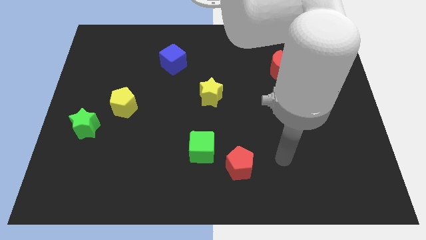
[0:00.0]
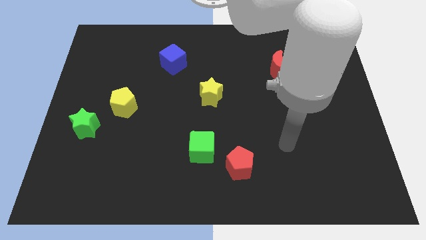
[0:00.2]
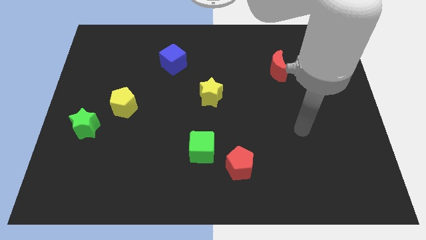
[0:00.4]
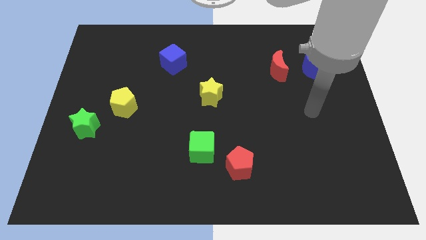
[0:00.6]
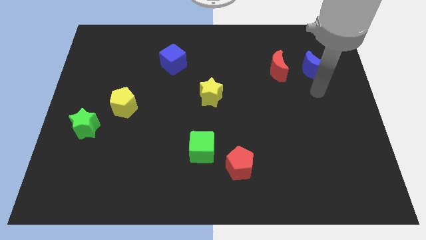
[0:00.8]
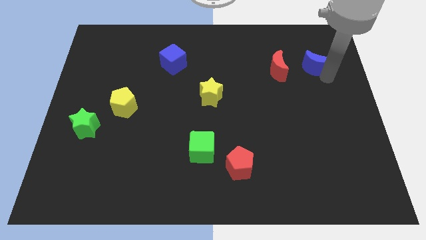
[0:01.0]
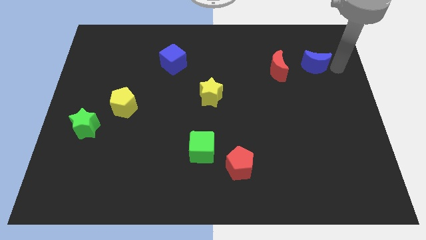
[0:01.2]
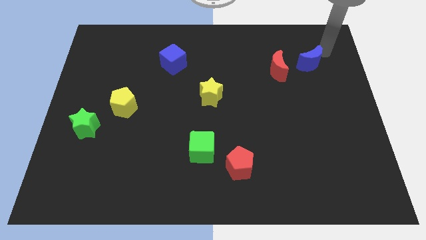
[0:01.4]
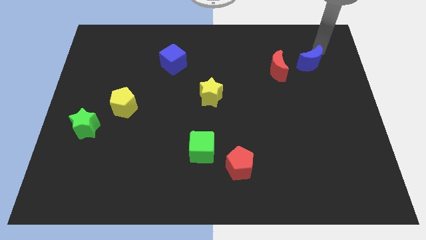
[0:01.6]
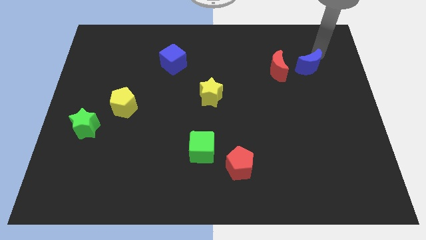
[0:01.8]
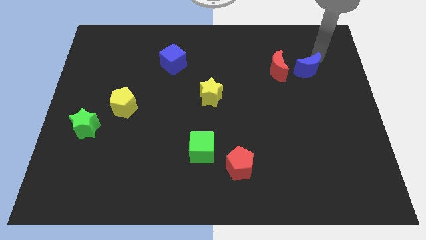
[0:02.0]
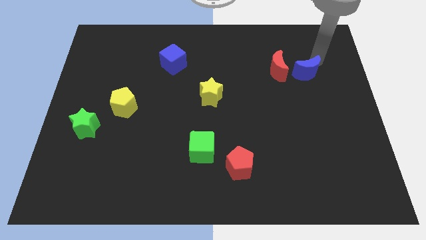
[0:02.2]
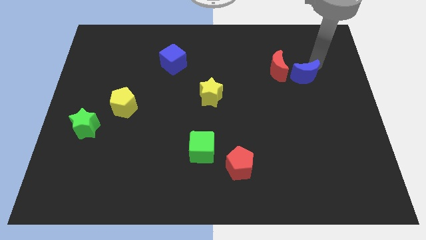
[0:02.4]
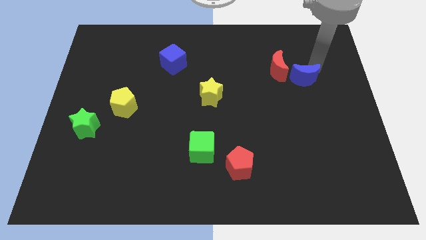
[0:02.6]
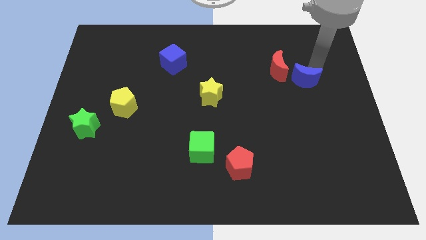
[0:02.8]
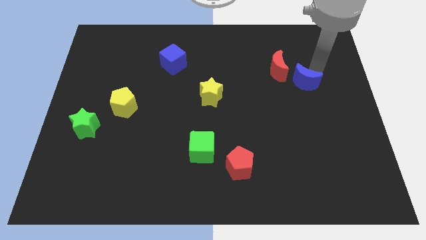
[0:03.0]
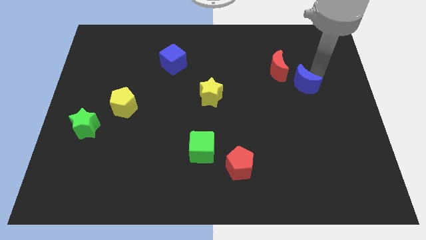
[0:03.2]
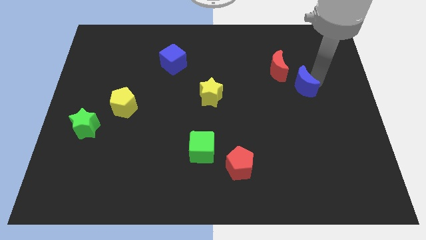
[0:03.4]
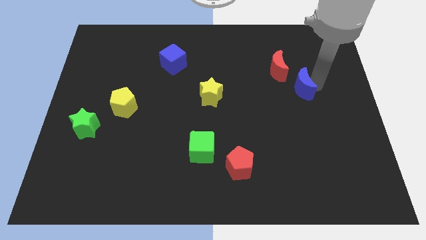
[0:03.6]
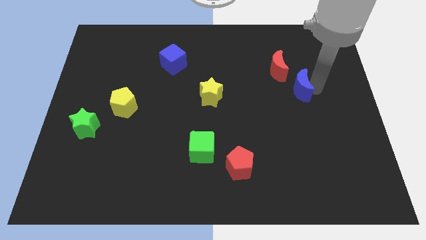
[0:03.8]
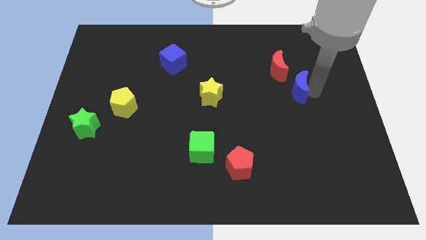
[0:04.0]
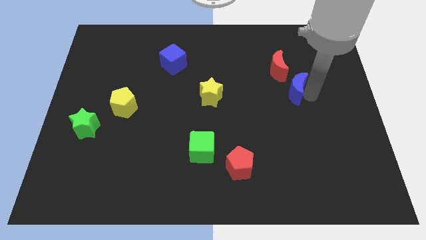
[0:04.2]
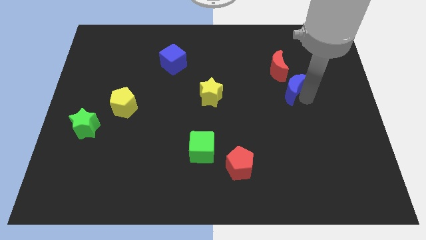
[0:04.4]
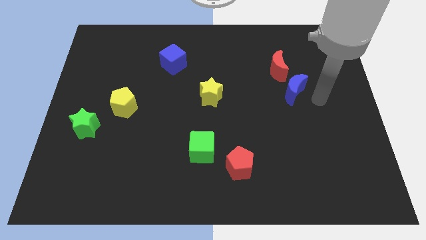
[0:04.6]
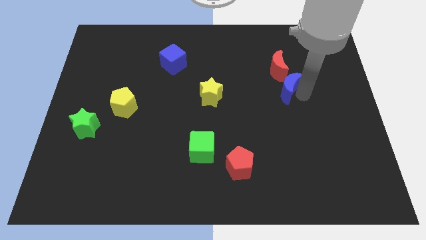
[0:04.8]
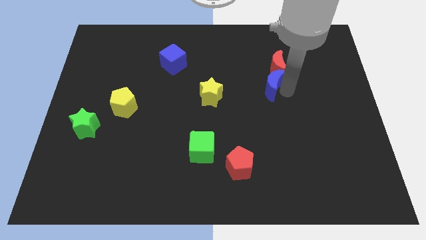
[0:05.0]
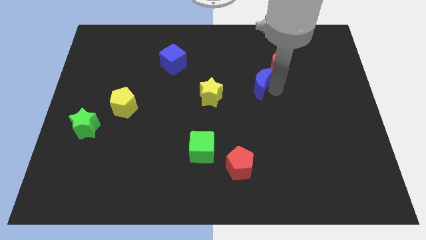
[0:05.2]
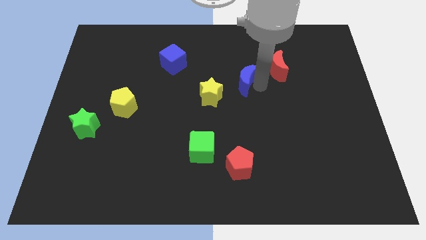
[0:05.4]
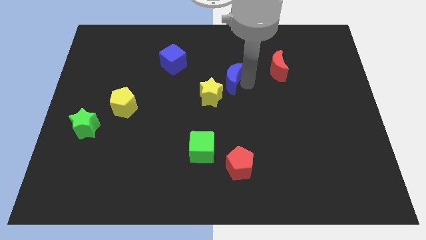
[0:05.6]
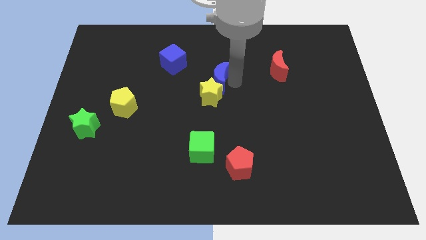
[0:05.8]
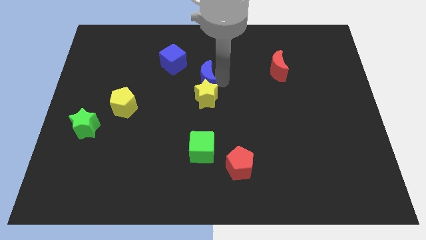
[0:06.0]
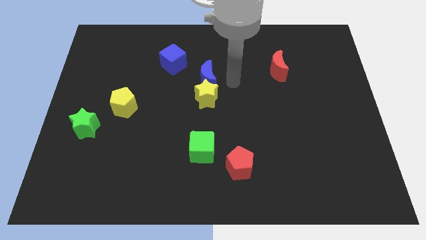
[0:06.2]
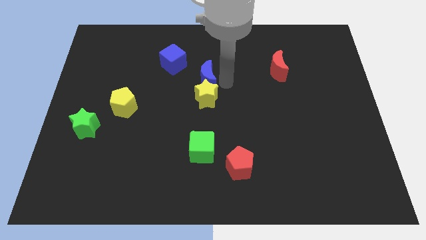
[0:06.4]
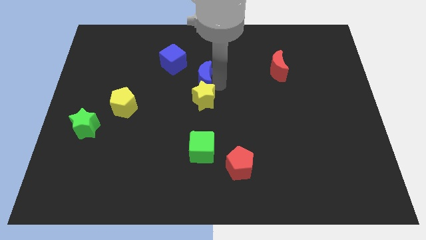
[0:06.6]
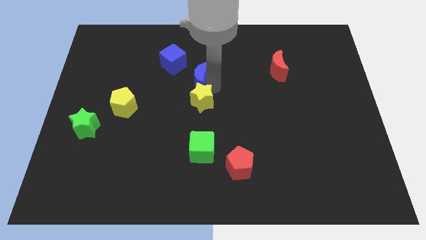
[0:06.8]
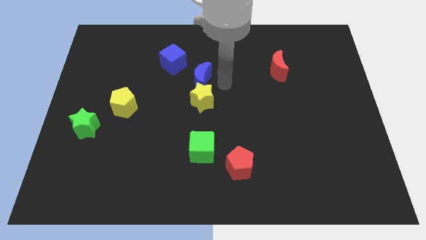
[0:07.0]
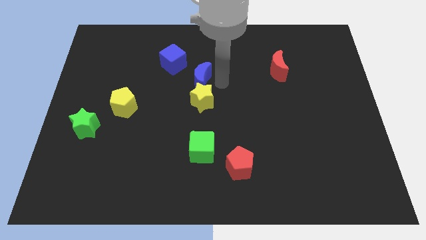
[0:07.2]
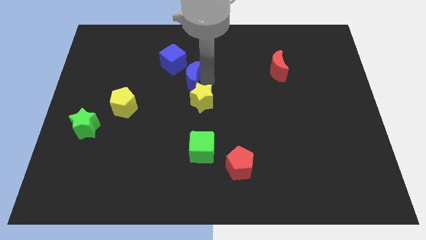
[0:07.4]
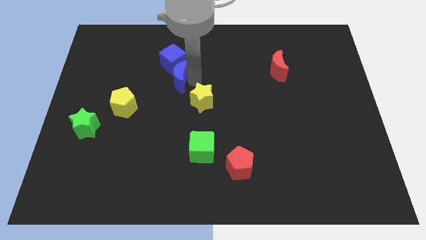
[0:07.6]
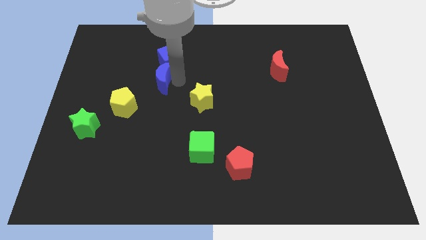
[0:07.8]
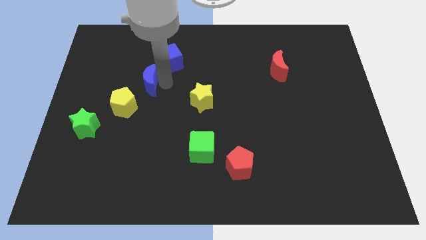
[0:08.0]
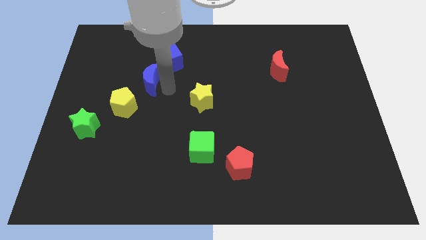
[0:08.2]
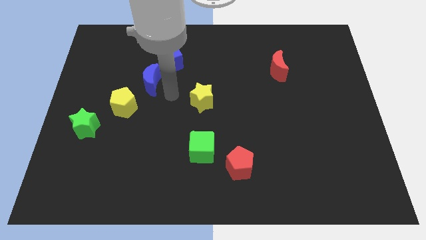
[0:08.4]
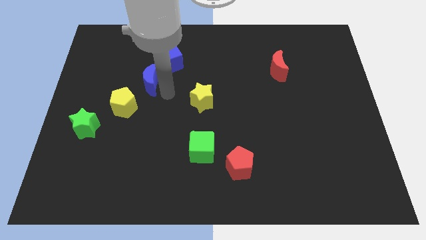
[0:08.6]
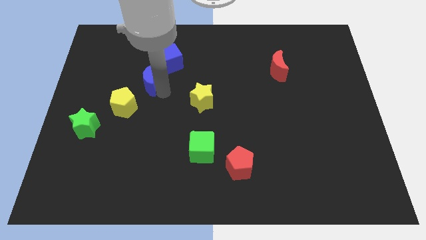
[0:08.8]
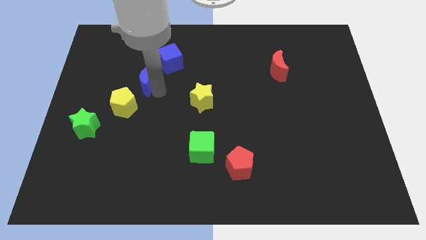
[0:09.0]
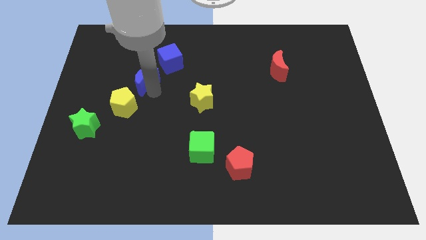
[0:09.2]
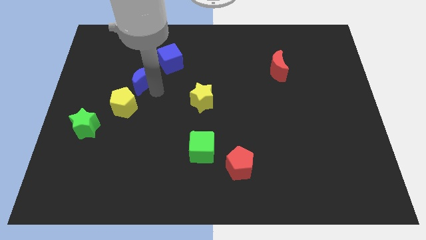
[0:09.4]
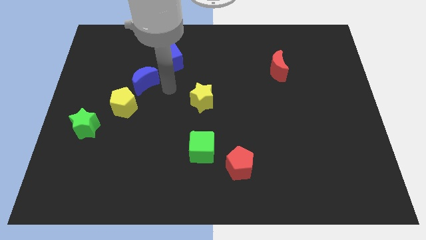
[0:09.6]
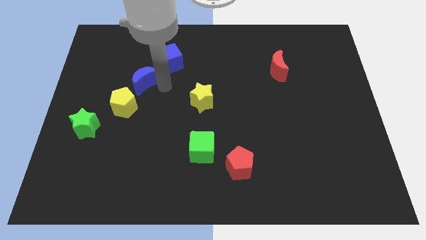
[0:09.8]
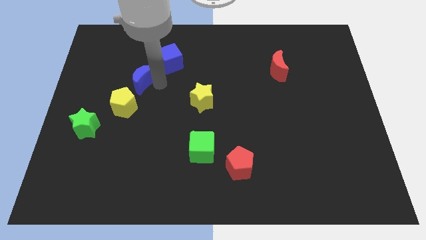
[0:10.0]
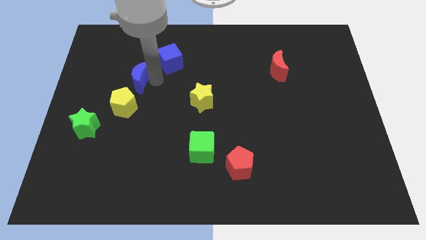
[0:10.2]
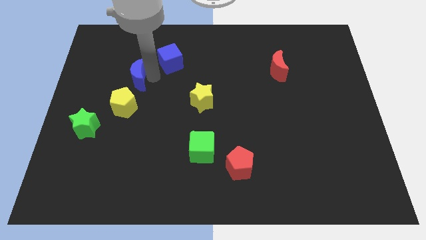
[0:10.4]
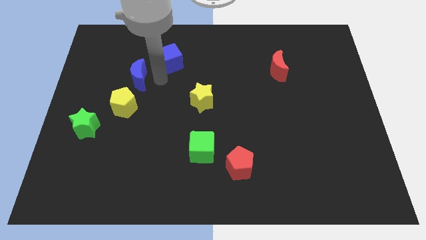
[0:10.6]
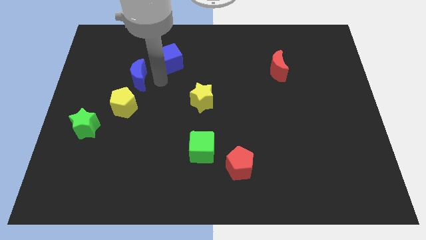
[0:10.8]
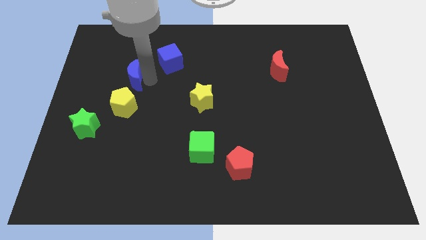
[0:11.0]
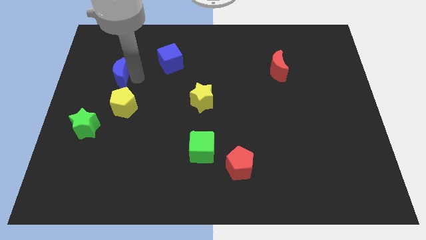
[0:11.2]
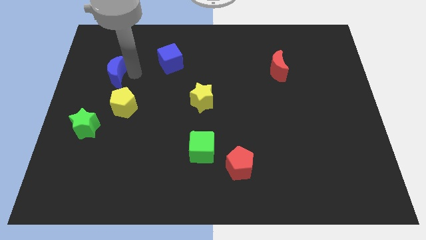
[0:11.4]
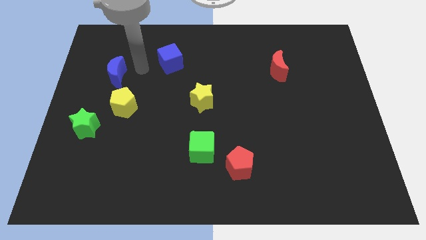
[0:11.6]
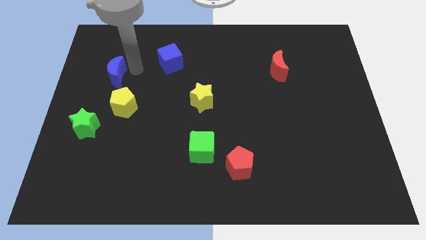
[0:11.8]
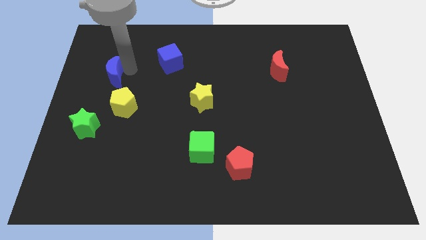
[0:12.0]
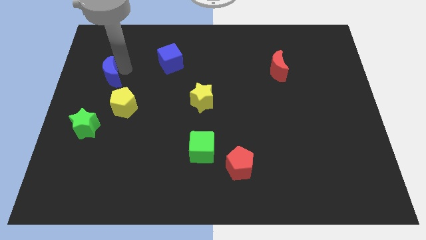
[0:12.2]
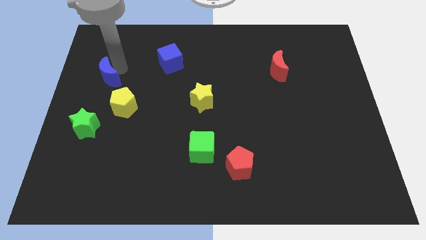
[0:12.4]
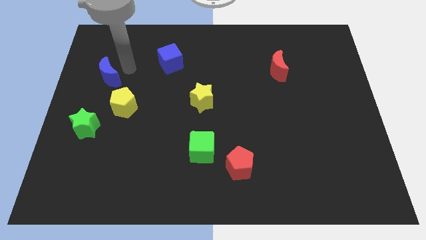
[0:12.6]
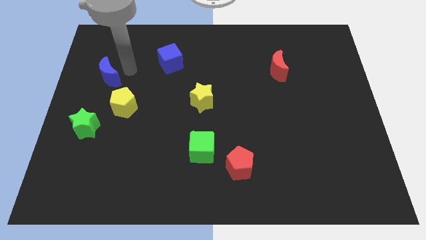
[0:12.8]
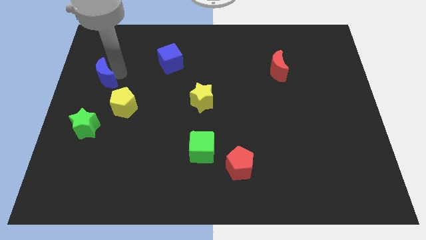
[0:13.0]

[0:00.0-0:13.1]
push the blue moon to the center left

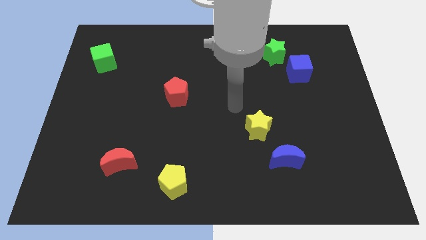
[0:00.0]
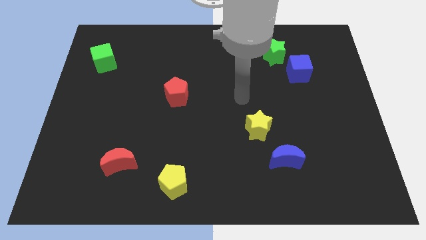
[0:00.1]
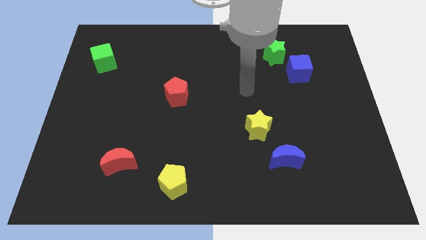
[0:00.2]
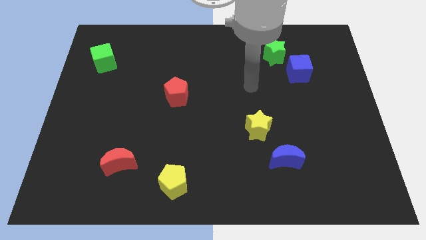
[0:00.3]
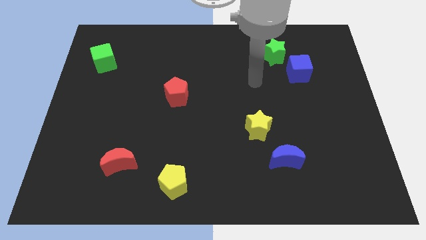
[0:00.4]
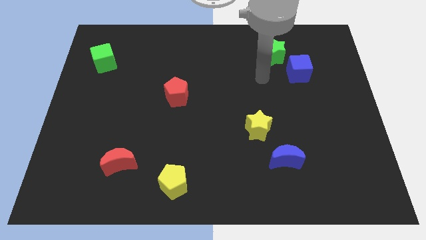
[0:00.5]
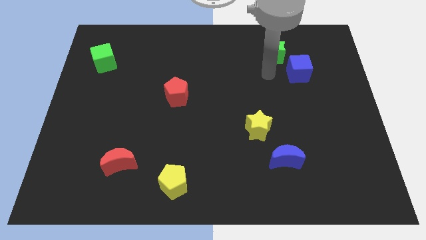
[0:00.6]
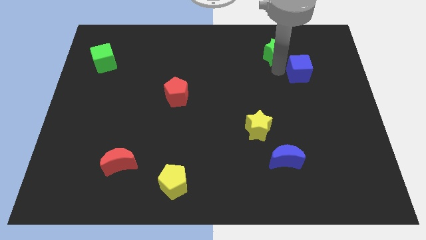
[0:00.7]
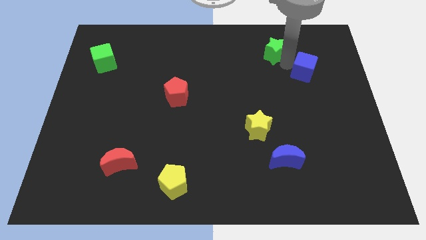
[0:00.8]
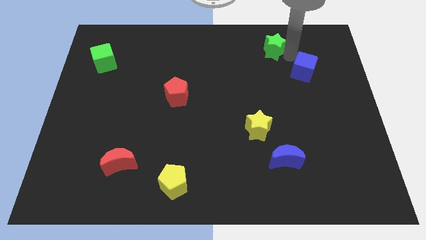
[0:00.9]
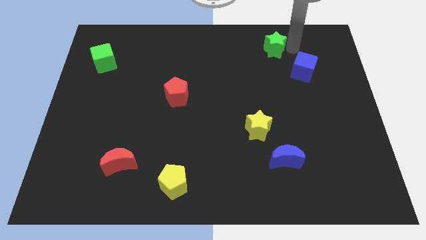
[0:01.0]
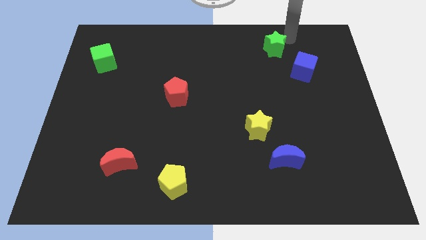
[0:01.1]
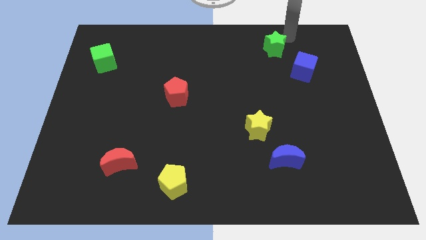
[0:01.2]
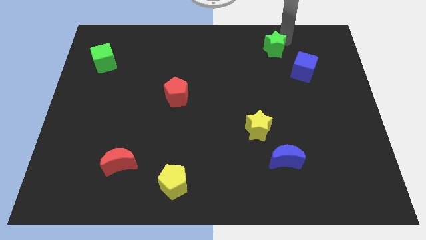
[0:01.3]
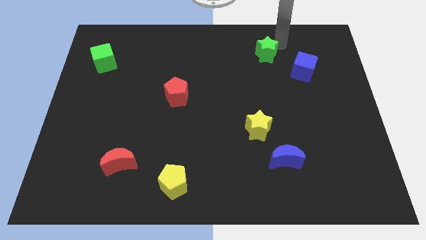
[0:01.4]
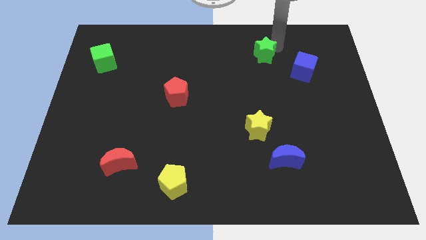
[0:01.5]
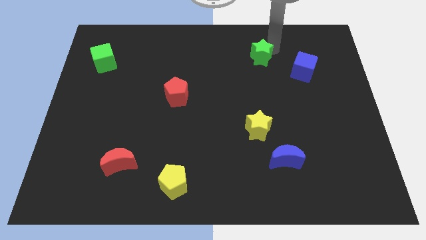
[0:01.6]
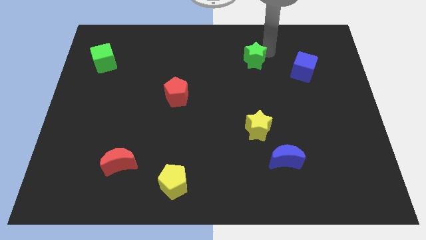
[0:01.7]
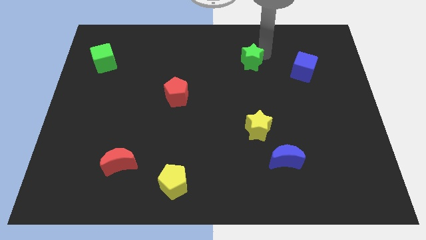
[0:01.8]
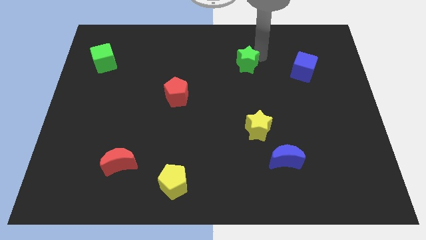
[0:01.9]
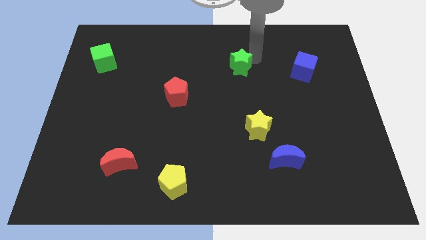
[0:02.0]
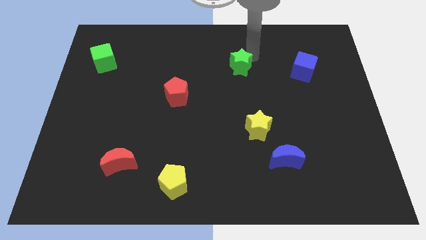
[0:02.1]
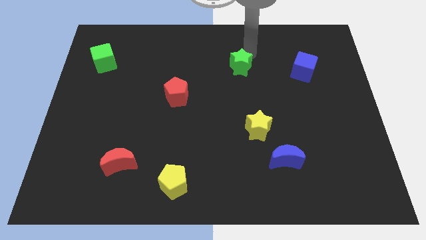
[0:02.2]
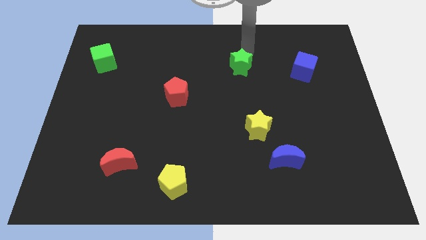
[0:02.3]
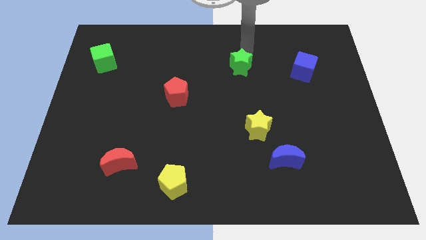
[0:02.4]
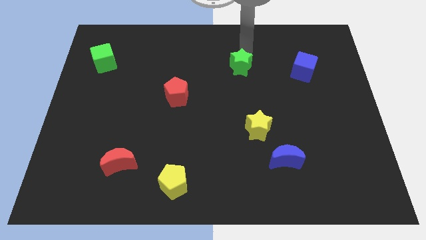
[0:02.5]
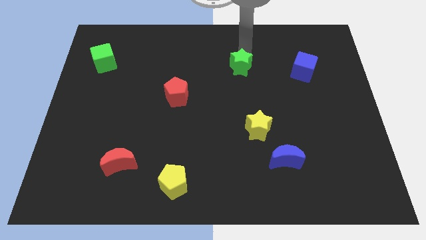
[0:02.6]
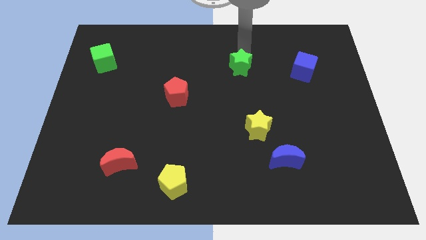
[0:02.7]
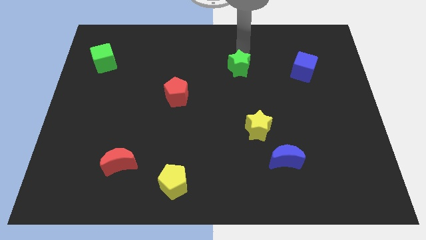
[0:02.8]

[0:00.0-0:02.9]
move the green star to the center
